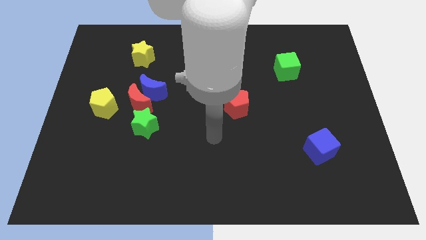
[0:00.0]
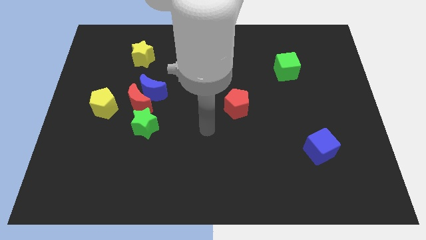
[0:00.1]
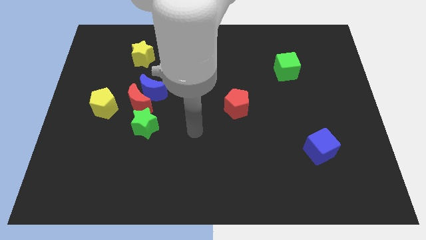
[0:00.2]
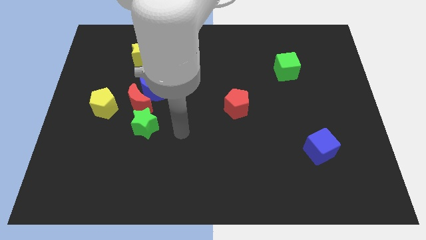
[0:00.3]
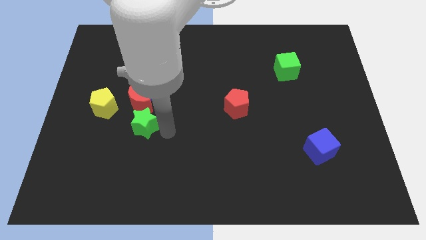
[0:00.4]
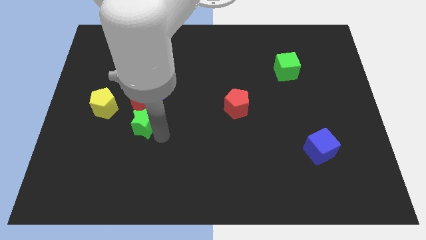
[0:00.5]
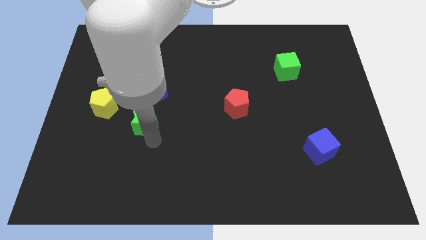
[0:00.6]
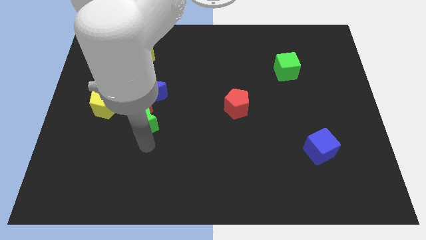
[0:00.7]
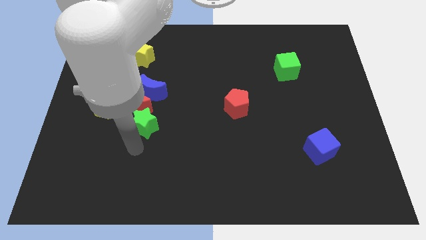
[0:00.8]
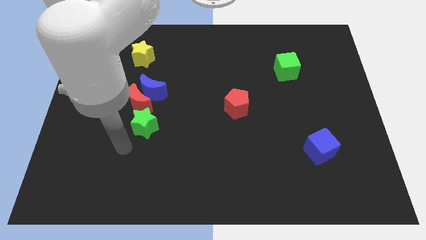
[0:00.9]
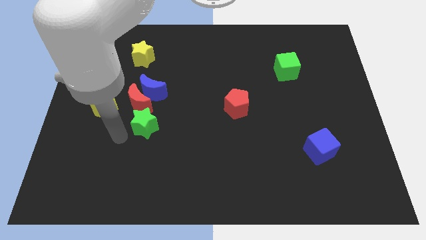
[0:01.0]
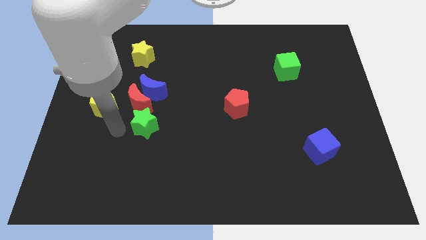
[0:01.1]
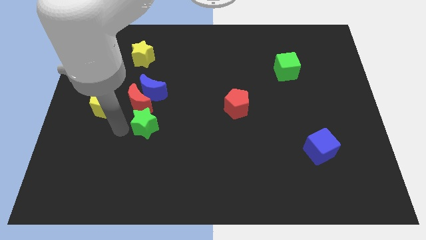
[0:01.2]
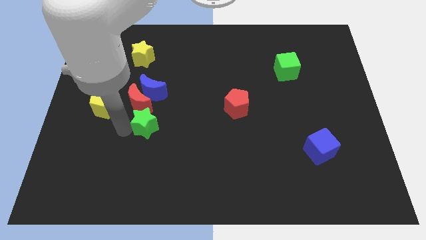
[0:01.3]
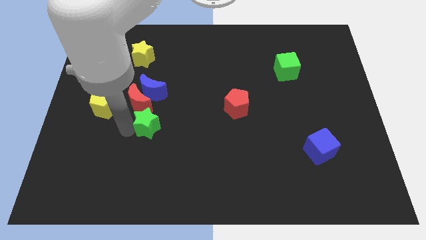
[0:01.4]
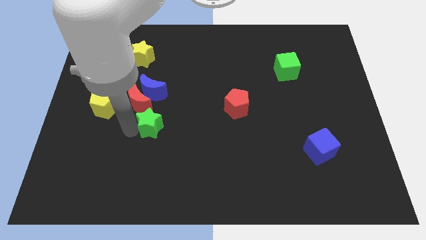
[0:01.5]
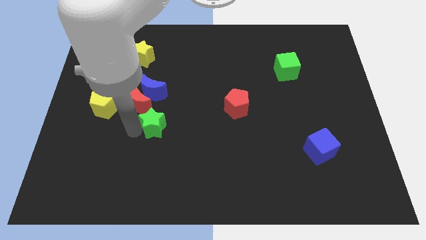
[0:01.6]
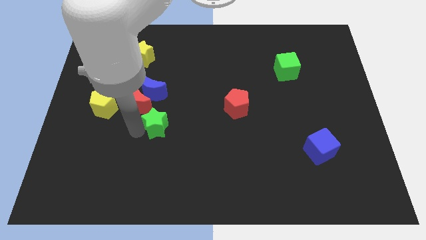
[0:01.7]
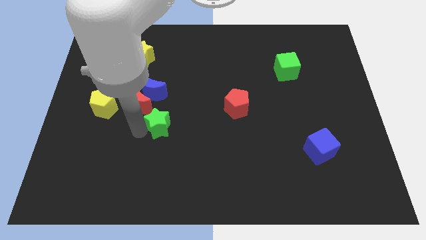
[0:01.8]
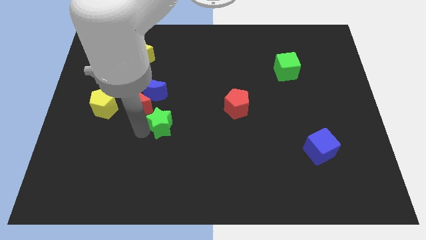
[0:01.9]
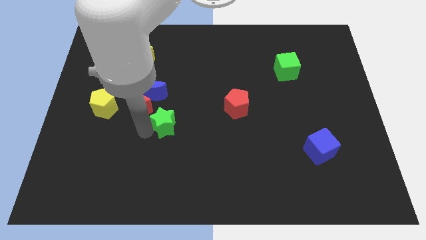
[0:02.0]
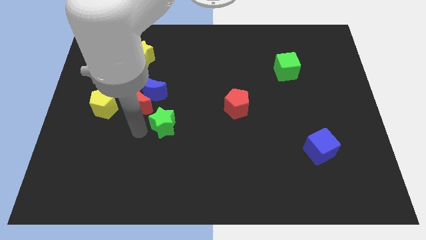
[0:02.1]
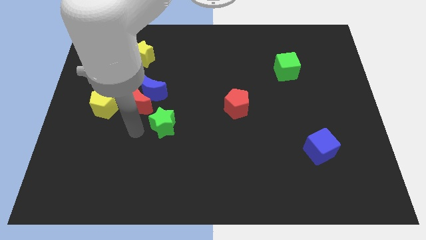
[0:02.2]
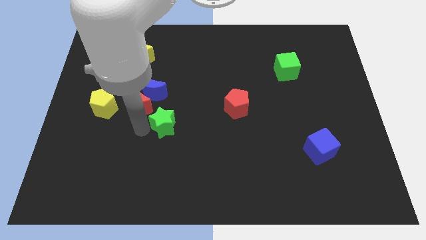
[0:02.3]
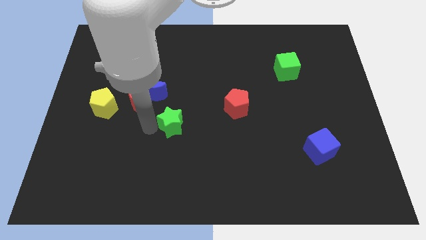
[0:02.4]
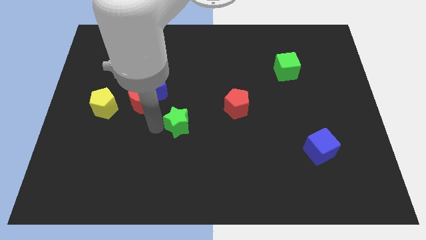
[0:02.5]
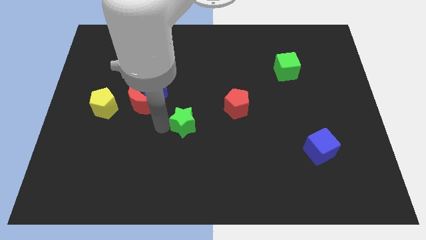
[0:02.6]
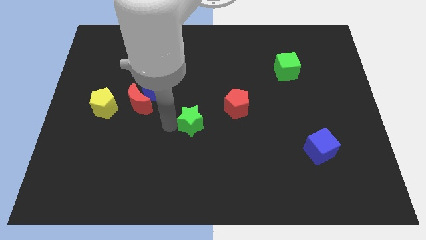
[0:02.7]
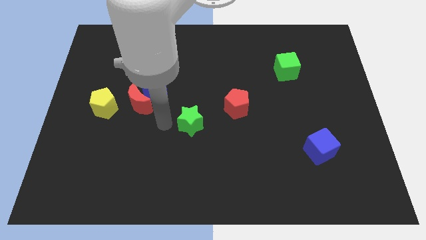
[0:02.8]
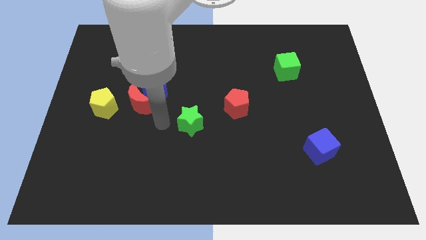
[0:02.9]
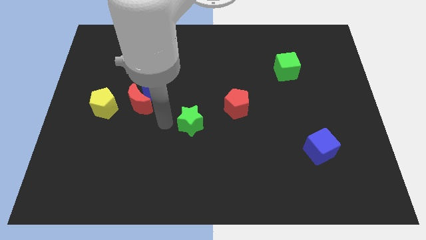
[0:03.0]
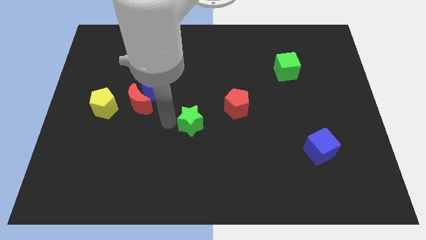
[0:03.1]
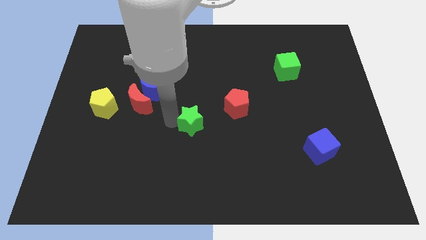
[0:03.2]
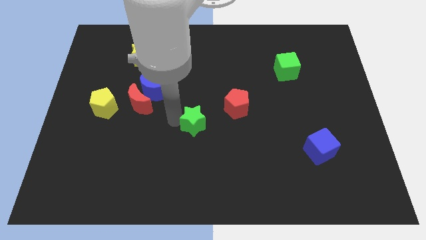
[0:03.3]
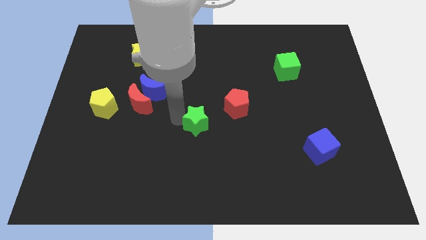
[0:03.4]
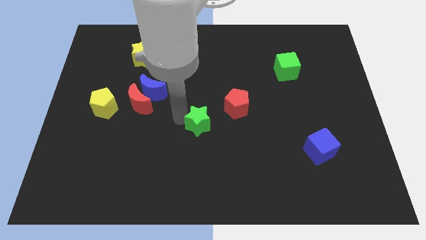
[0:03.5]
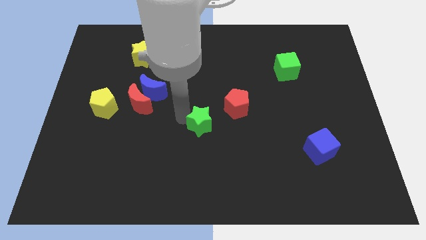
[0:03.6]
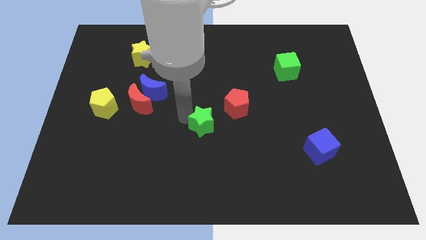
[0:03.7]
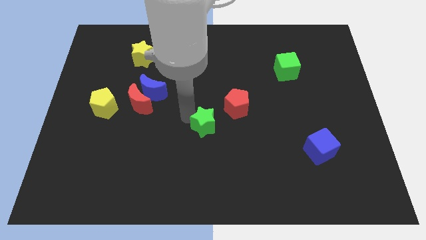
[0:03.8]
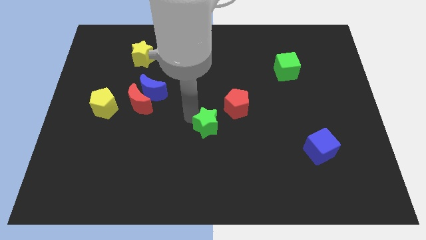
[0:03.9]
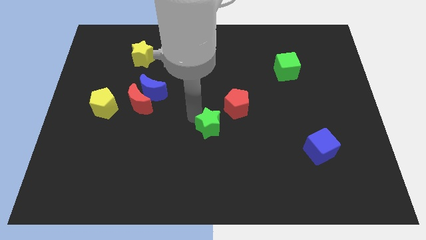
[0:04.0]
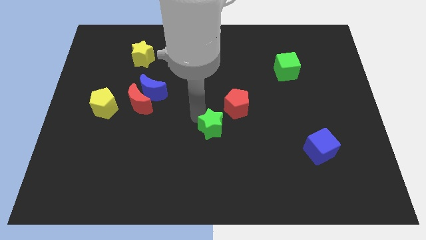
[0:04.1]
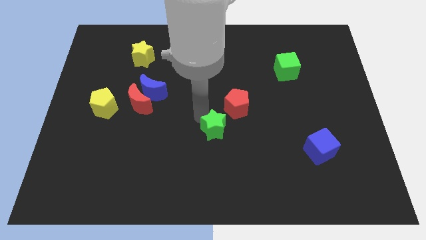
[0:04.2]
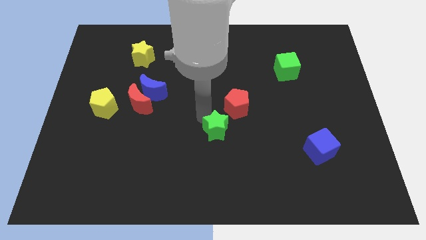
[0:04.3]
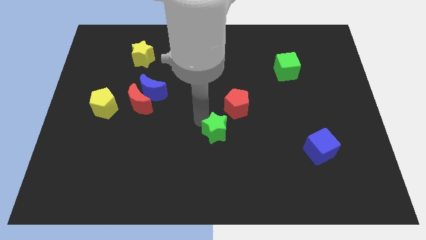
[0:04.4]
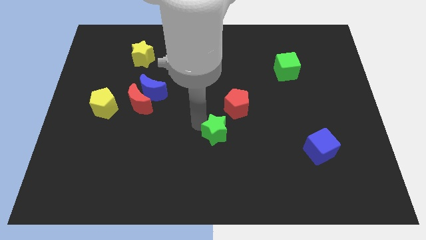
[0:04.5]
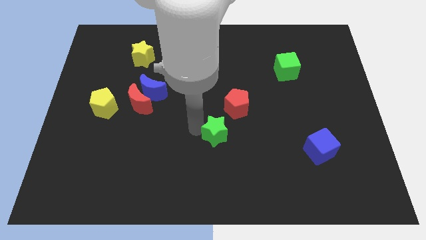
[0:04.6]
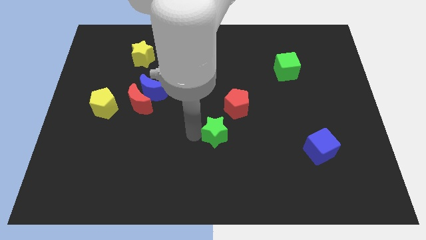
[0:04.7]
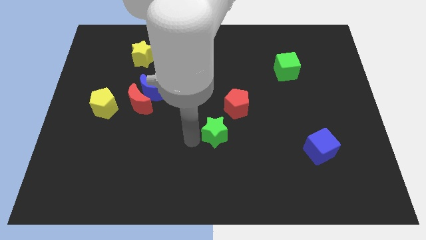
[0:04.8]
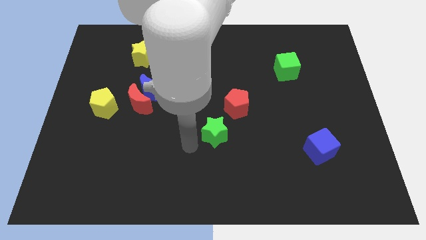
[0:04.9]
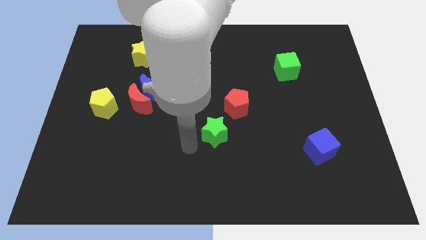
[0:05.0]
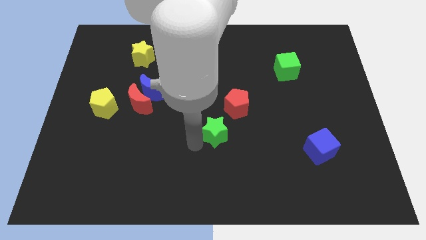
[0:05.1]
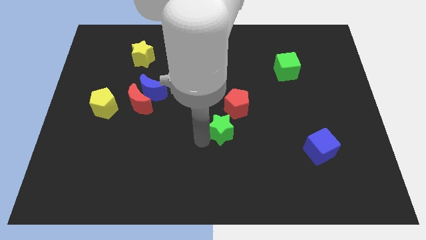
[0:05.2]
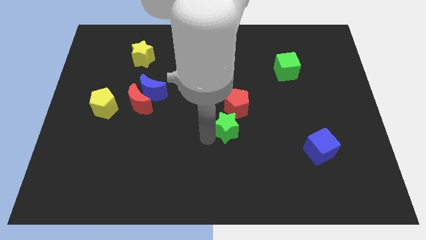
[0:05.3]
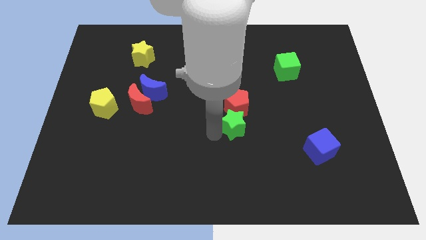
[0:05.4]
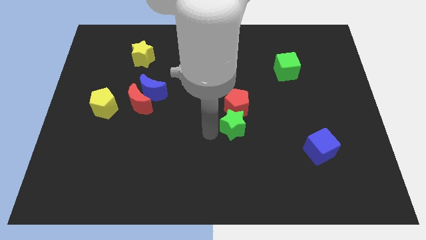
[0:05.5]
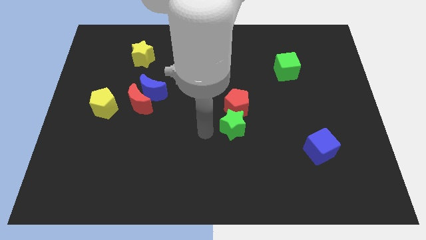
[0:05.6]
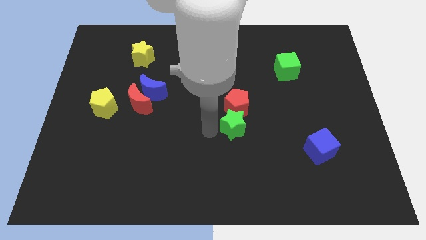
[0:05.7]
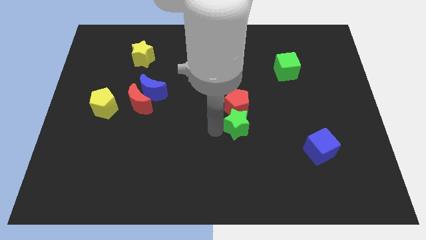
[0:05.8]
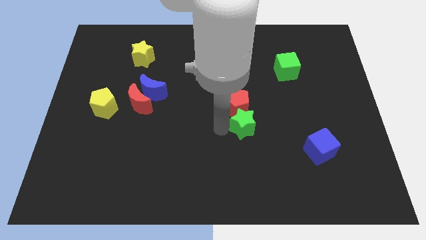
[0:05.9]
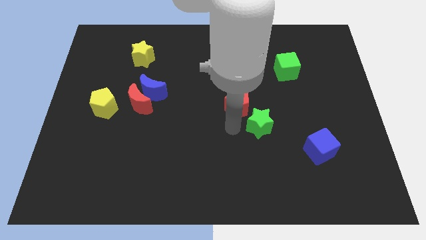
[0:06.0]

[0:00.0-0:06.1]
push the green star to the right side of the red pentagon
